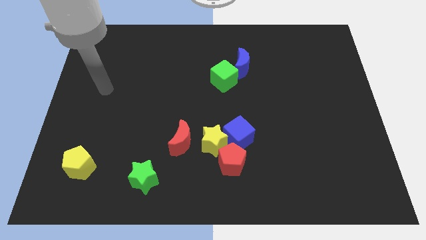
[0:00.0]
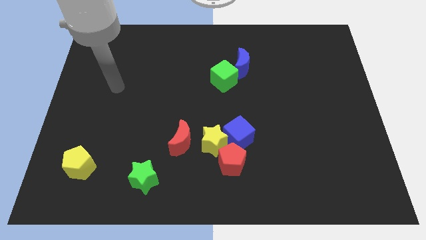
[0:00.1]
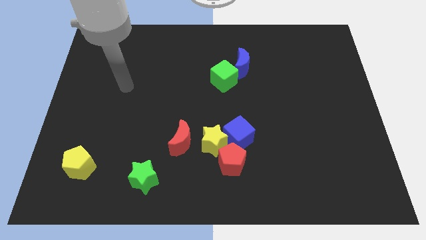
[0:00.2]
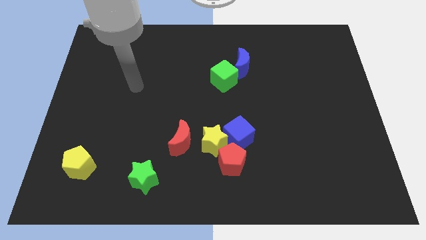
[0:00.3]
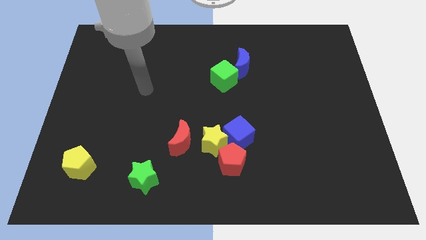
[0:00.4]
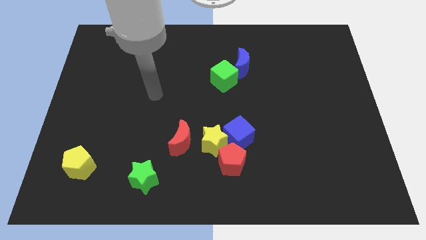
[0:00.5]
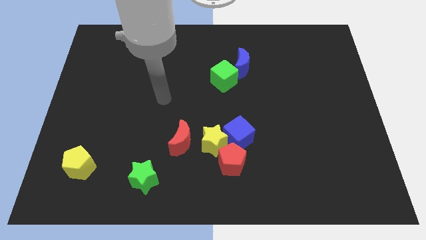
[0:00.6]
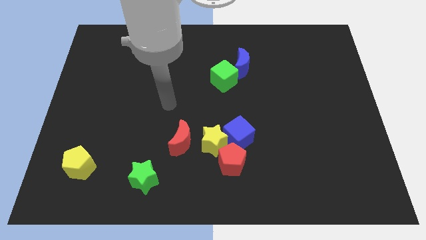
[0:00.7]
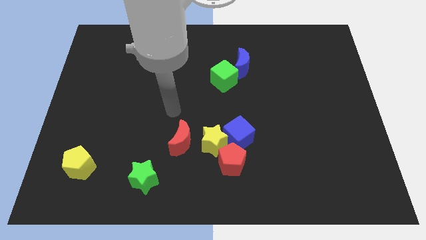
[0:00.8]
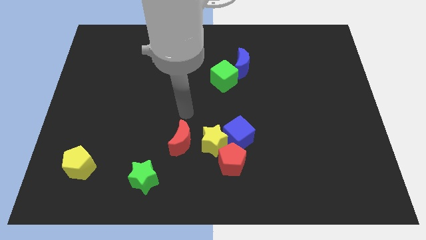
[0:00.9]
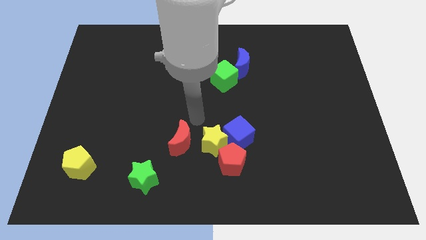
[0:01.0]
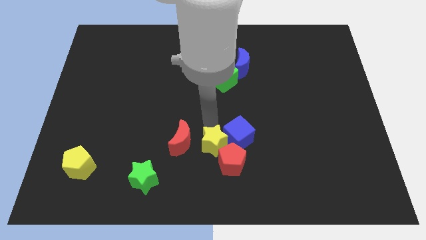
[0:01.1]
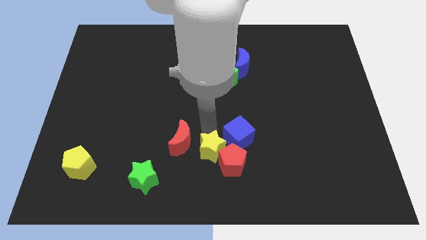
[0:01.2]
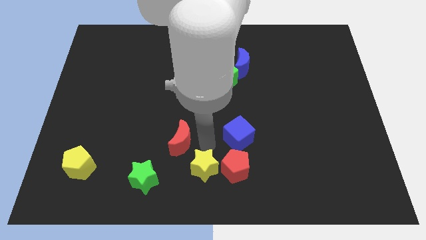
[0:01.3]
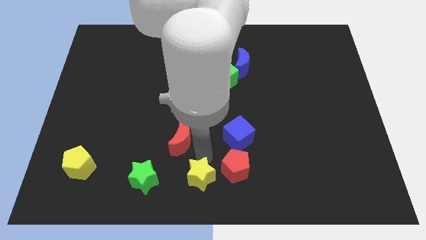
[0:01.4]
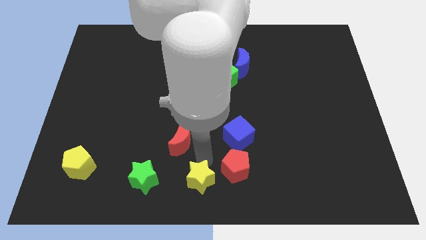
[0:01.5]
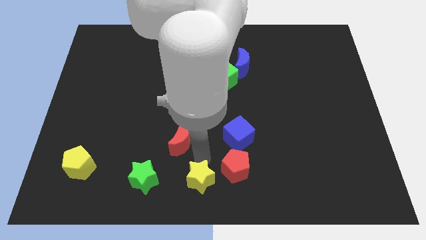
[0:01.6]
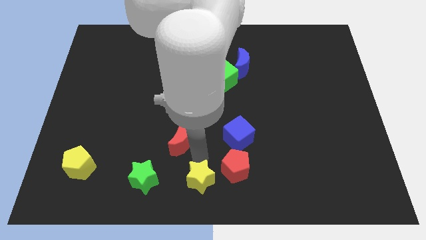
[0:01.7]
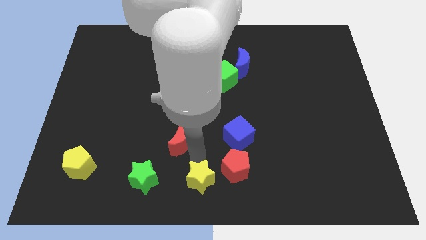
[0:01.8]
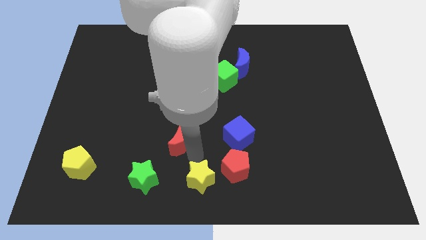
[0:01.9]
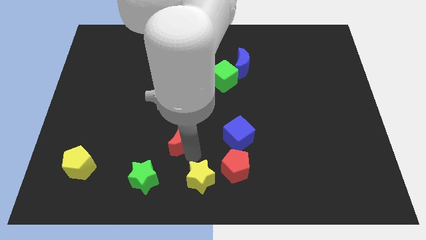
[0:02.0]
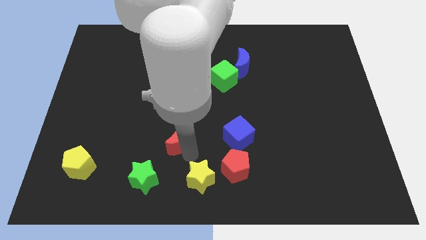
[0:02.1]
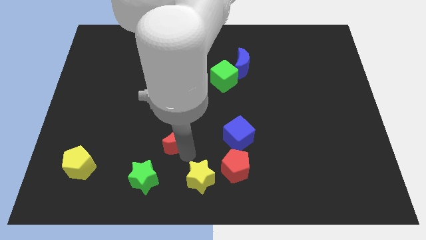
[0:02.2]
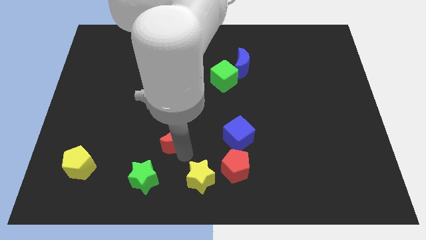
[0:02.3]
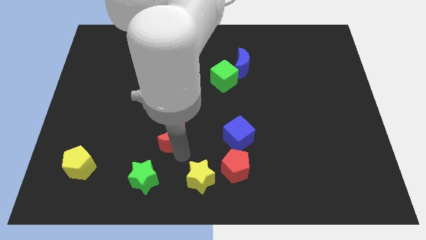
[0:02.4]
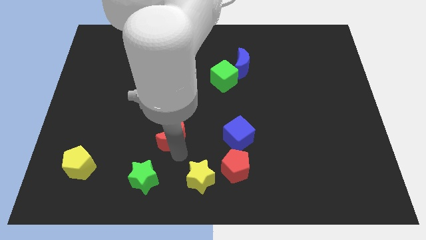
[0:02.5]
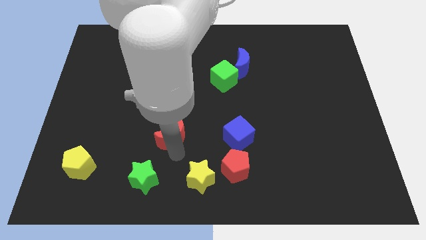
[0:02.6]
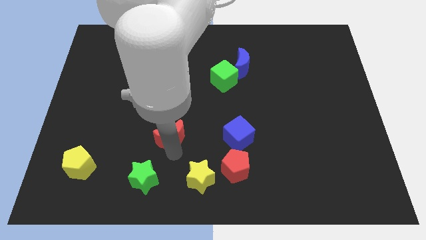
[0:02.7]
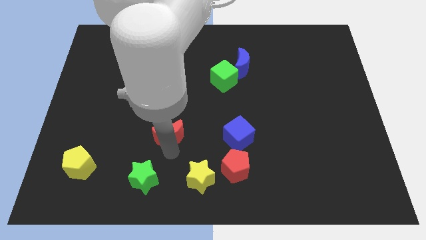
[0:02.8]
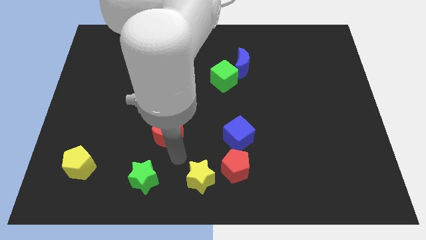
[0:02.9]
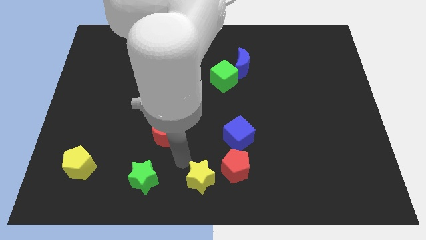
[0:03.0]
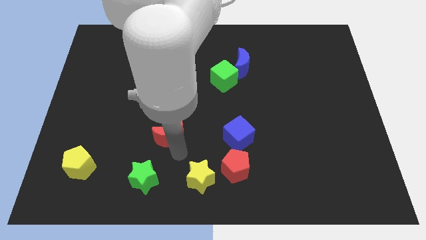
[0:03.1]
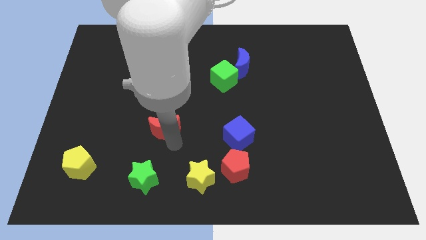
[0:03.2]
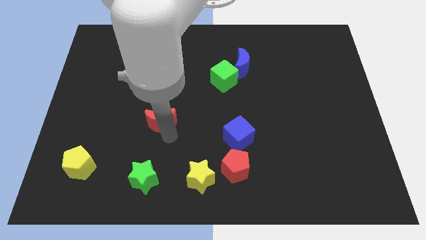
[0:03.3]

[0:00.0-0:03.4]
slide the red moon slightly upwards and left diagonally

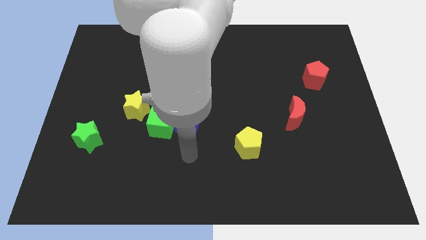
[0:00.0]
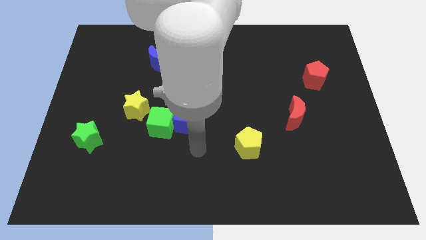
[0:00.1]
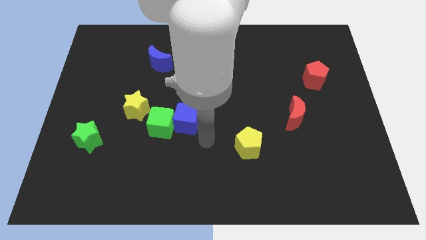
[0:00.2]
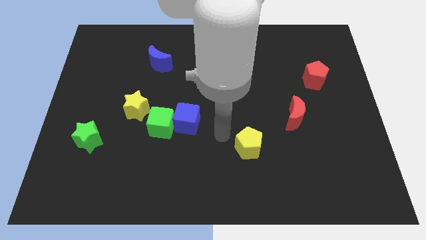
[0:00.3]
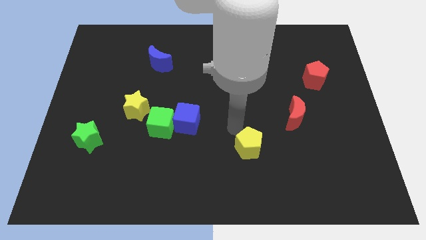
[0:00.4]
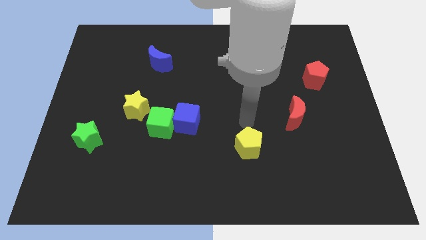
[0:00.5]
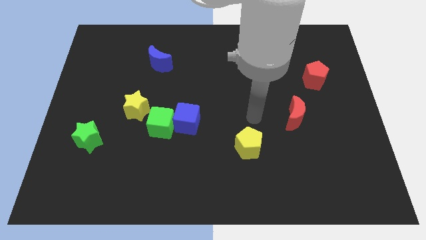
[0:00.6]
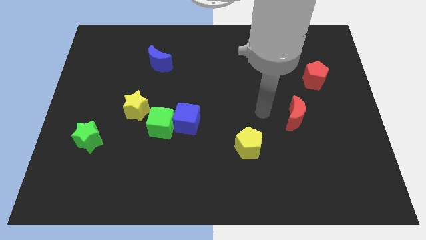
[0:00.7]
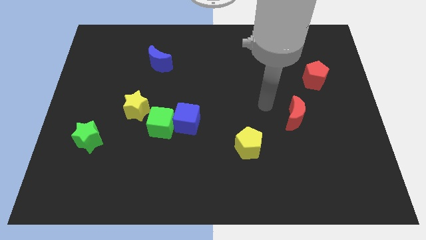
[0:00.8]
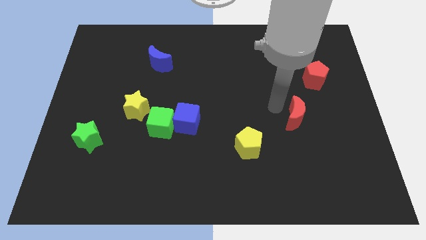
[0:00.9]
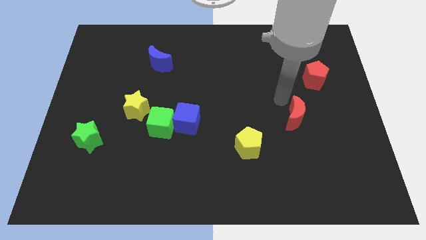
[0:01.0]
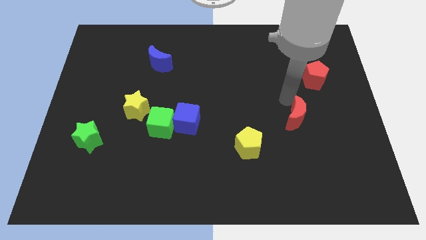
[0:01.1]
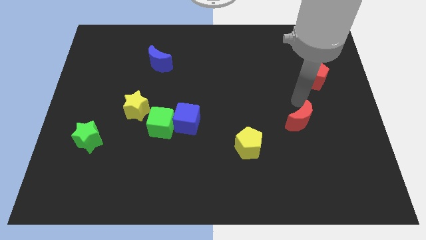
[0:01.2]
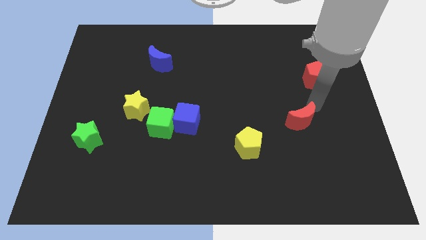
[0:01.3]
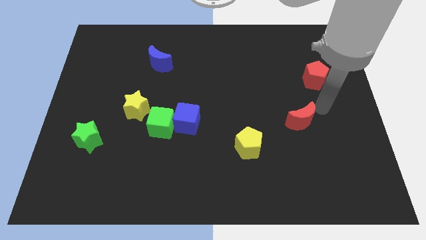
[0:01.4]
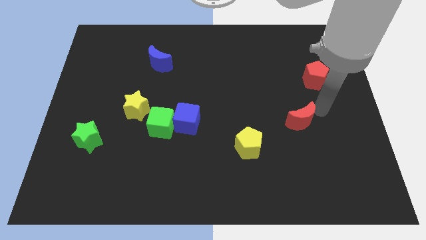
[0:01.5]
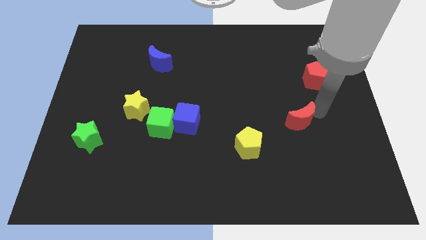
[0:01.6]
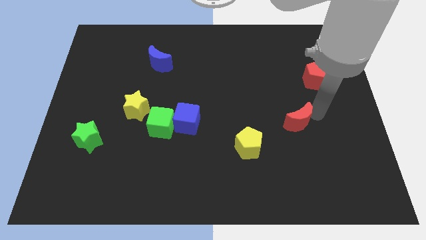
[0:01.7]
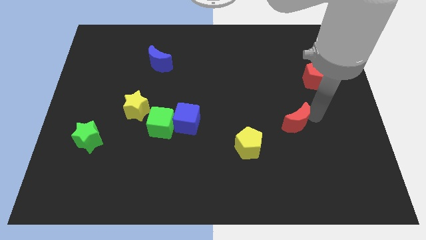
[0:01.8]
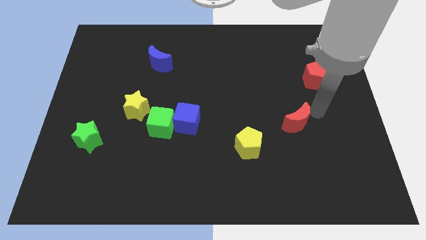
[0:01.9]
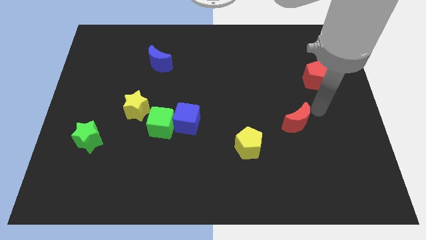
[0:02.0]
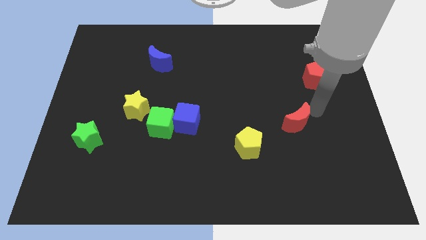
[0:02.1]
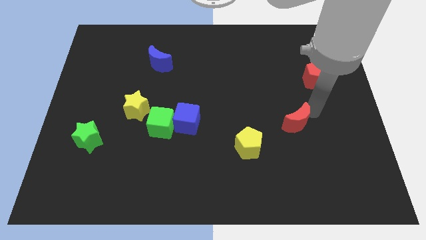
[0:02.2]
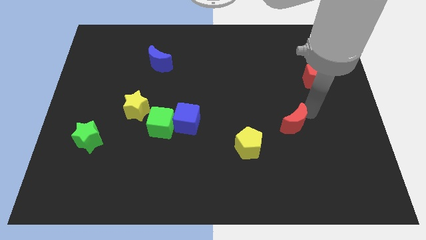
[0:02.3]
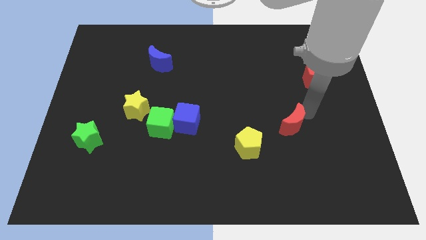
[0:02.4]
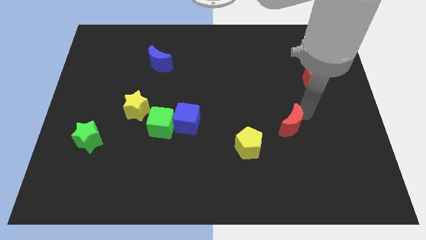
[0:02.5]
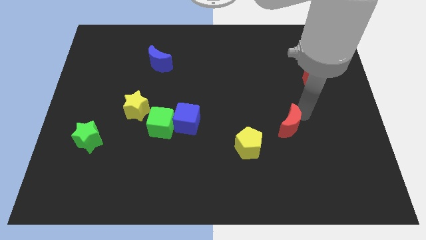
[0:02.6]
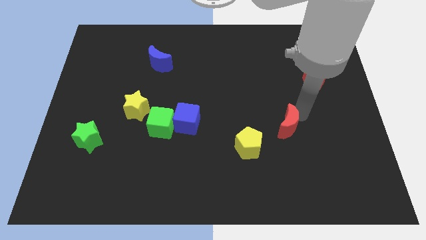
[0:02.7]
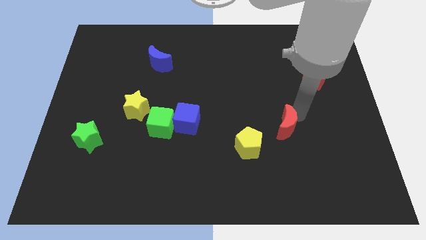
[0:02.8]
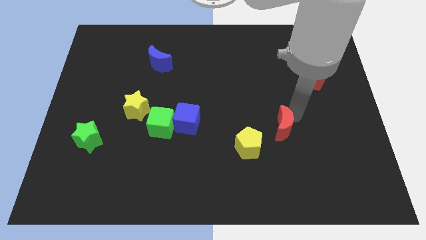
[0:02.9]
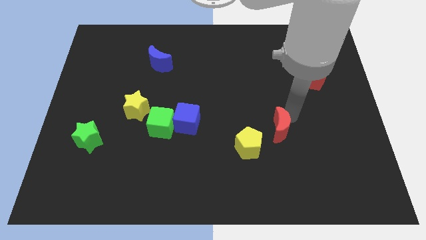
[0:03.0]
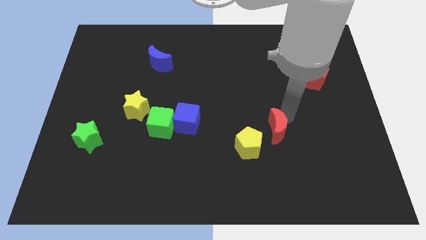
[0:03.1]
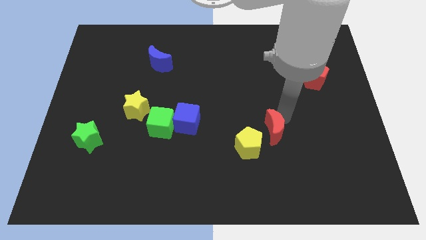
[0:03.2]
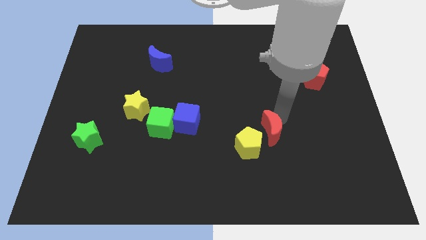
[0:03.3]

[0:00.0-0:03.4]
slightly slide the red moon down and then to the left

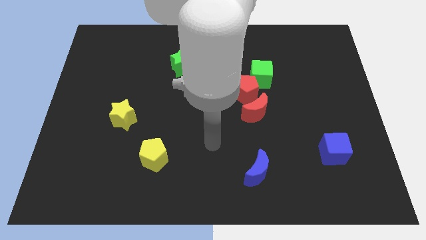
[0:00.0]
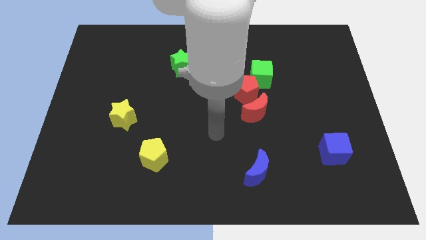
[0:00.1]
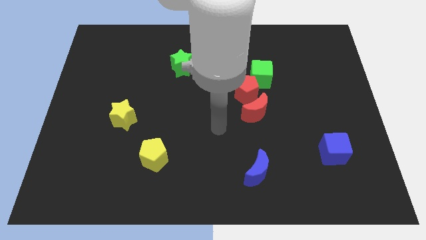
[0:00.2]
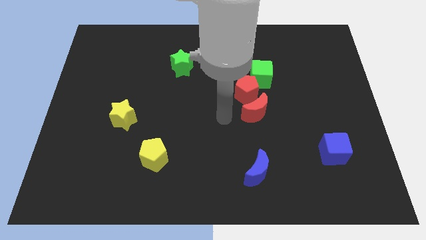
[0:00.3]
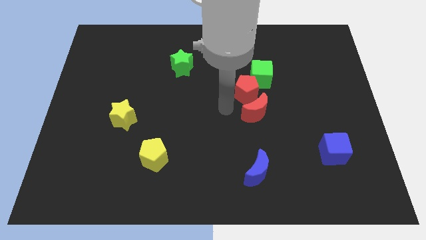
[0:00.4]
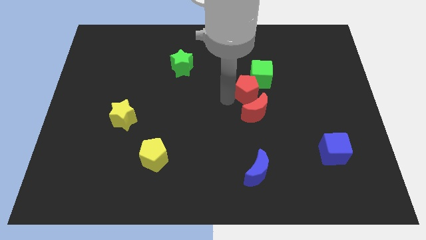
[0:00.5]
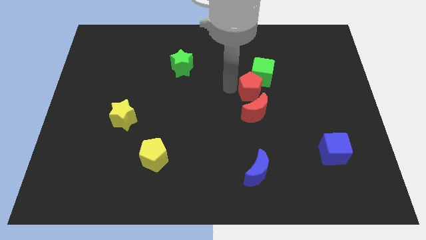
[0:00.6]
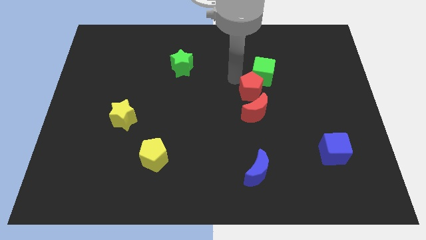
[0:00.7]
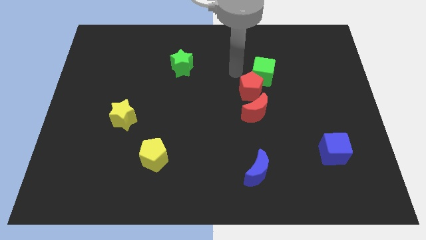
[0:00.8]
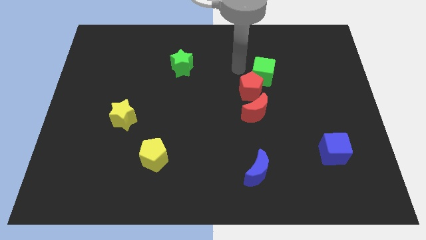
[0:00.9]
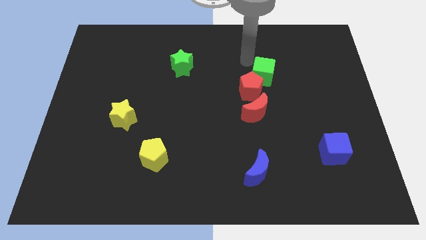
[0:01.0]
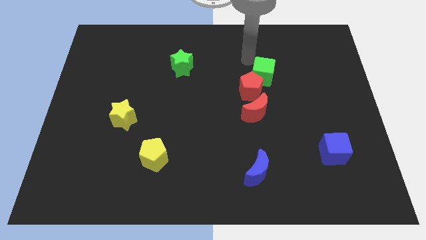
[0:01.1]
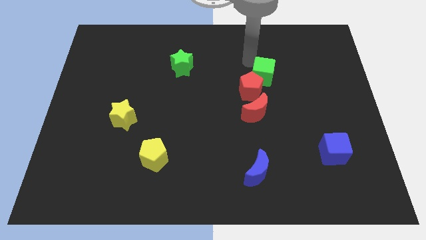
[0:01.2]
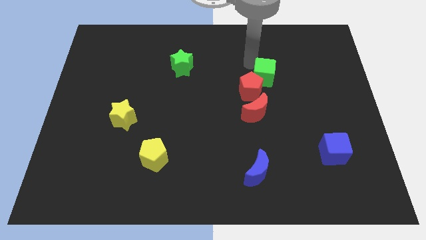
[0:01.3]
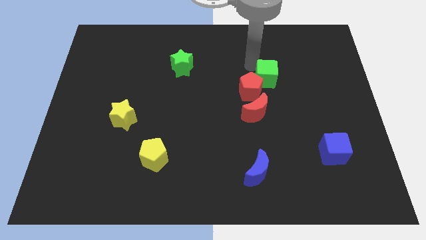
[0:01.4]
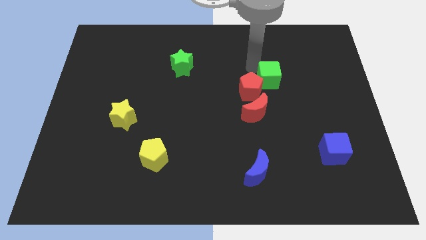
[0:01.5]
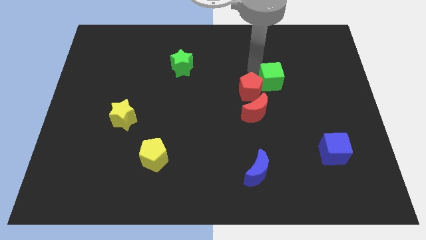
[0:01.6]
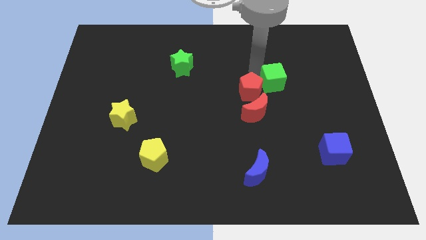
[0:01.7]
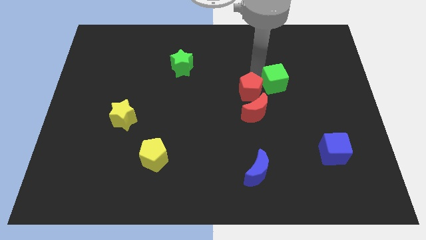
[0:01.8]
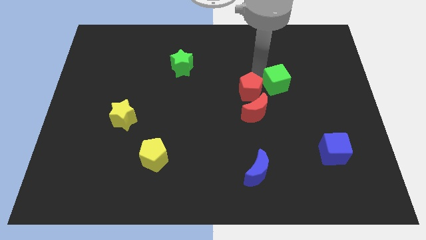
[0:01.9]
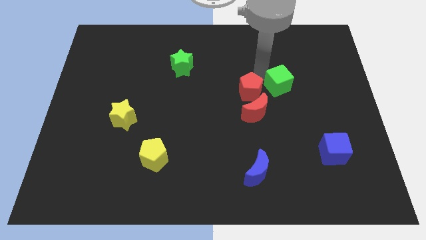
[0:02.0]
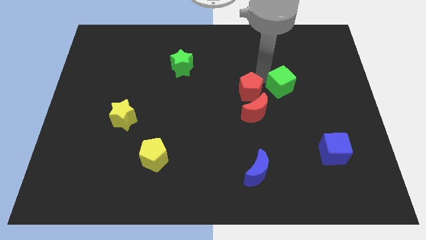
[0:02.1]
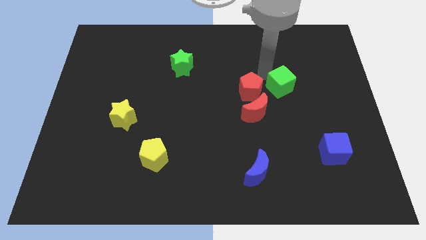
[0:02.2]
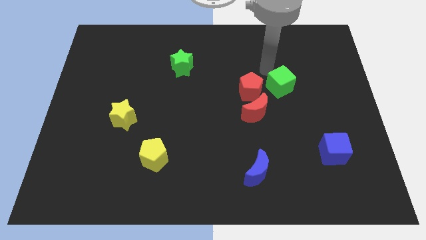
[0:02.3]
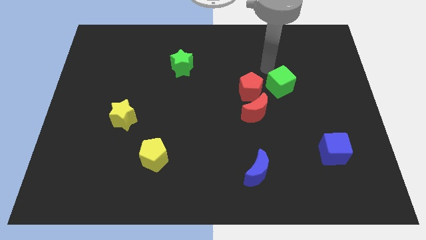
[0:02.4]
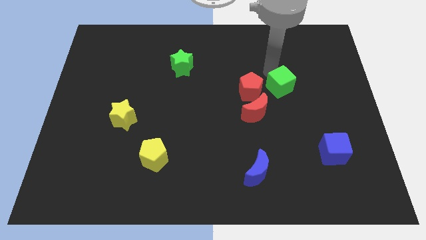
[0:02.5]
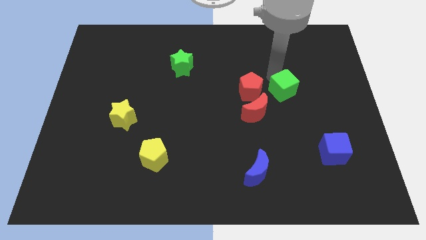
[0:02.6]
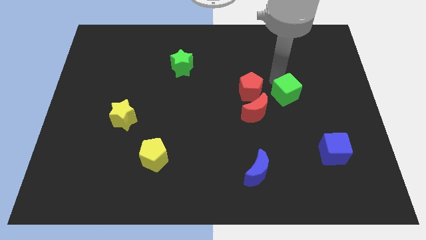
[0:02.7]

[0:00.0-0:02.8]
slightly move the green cube diagonally downwards and to the right
